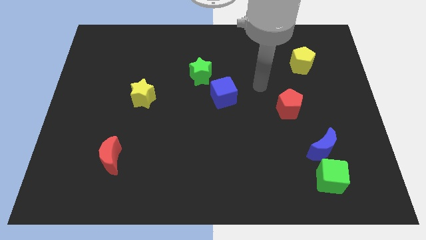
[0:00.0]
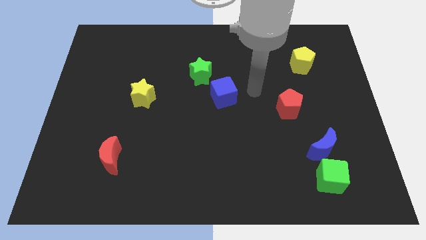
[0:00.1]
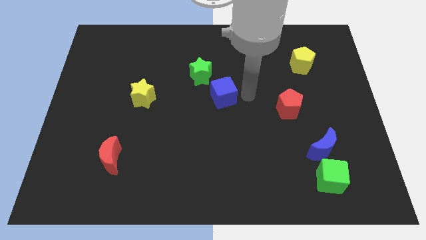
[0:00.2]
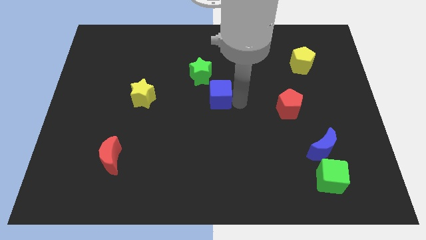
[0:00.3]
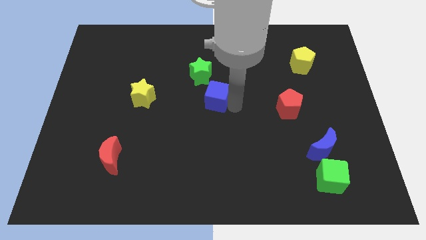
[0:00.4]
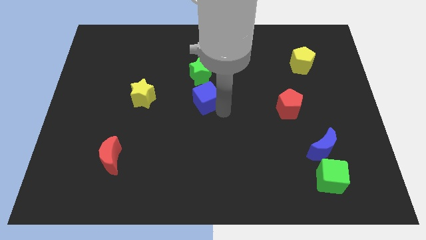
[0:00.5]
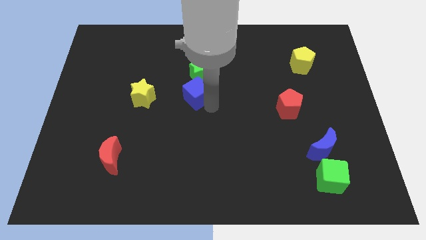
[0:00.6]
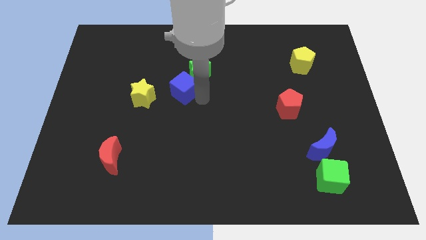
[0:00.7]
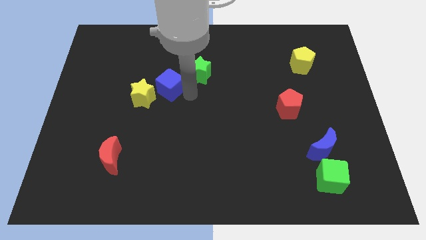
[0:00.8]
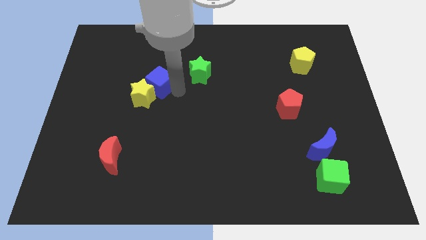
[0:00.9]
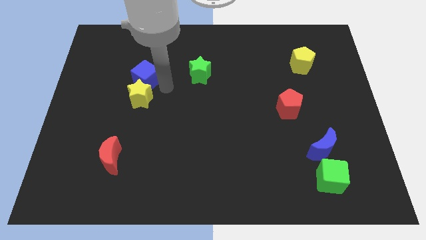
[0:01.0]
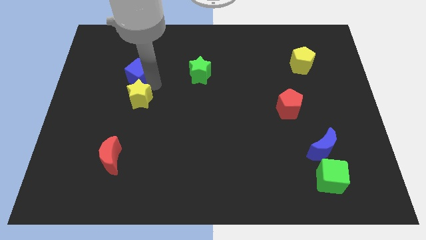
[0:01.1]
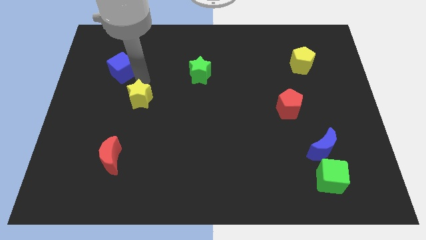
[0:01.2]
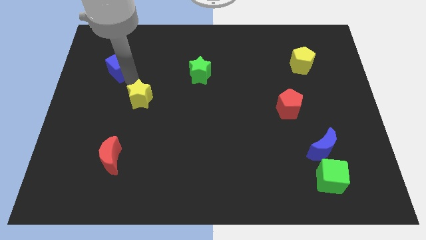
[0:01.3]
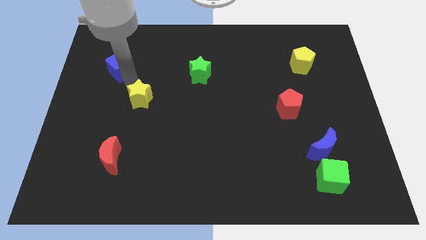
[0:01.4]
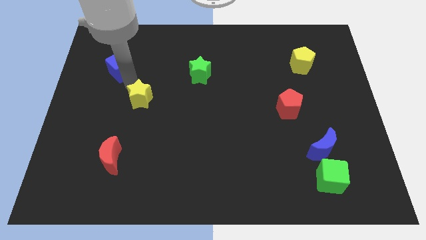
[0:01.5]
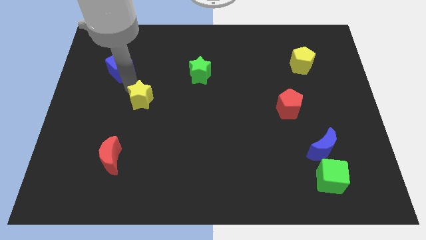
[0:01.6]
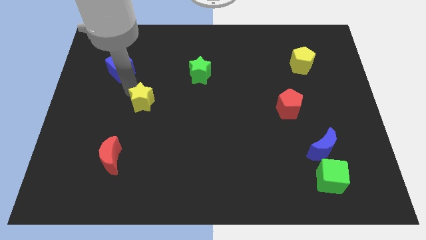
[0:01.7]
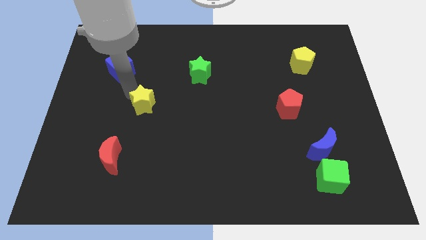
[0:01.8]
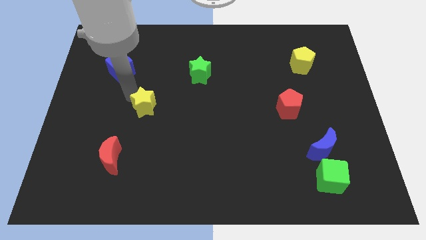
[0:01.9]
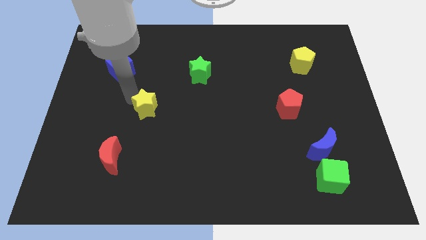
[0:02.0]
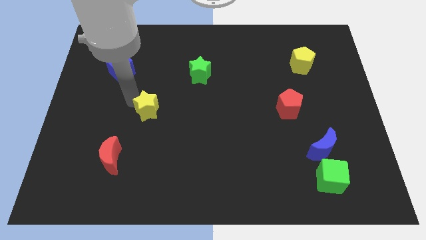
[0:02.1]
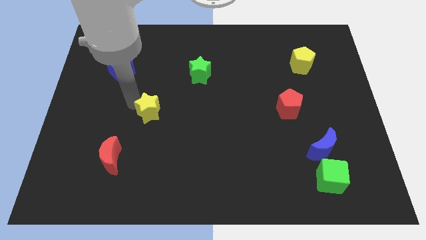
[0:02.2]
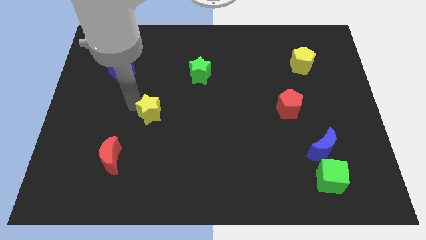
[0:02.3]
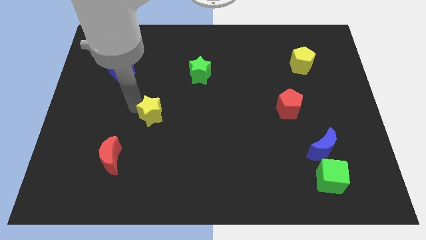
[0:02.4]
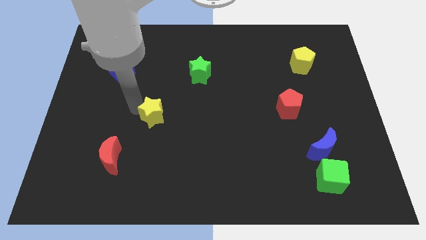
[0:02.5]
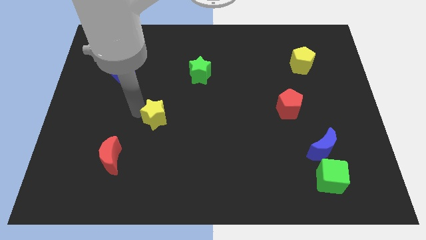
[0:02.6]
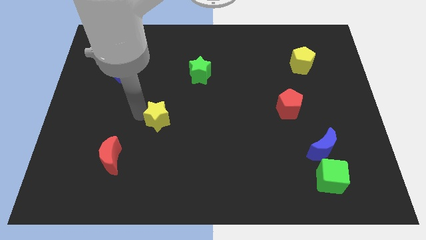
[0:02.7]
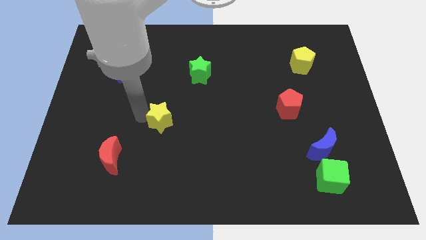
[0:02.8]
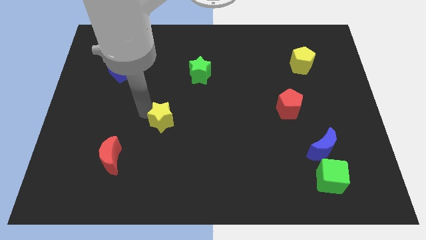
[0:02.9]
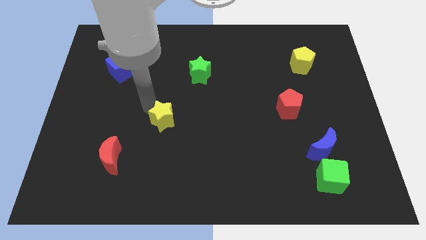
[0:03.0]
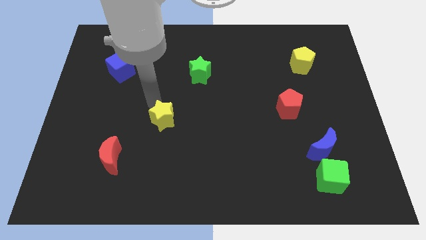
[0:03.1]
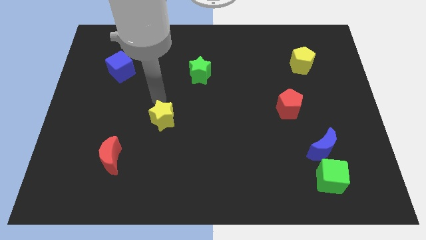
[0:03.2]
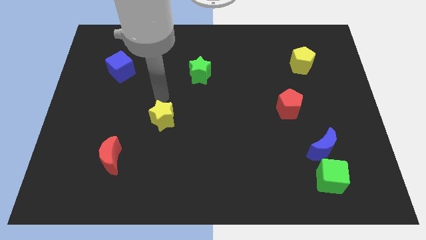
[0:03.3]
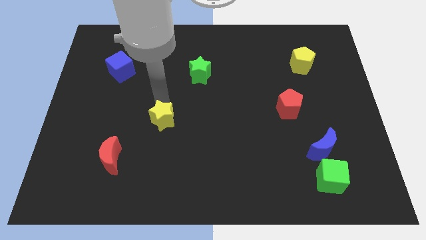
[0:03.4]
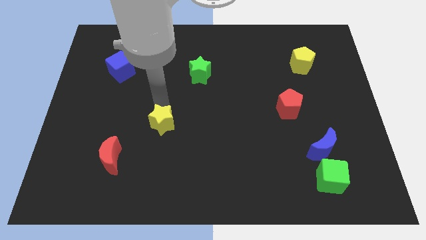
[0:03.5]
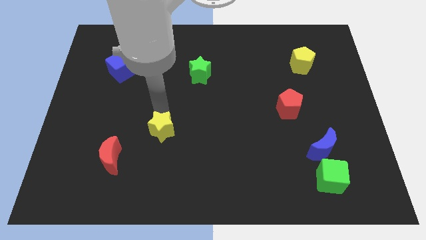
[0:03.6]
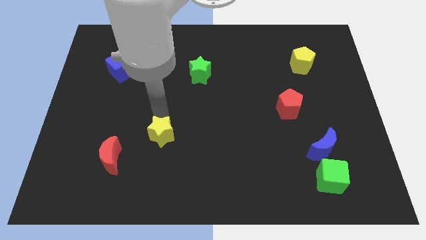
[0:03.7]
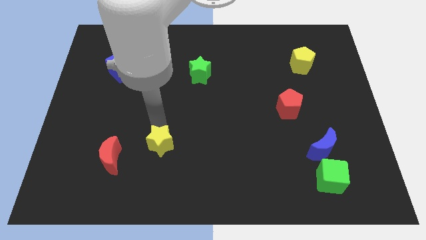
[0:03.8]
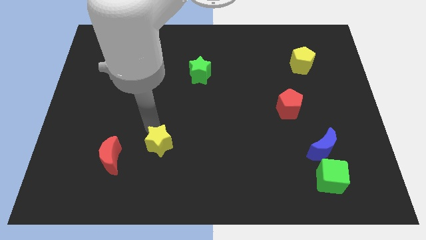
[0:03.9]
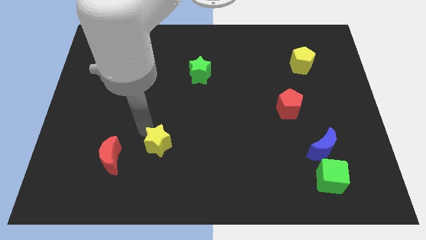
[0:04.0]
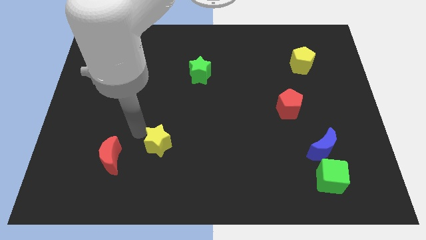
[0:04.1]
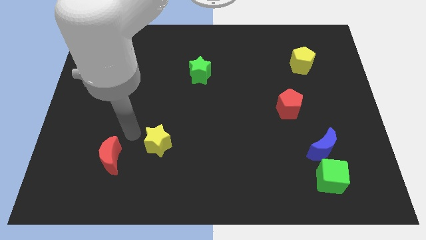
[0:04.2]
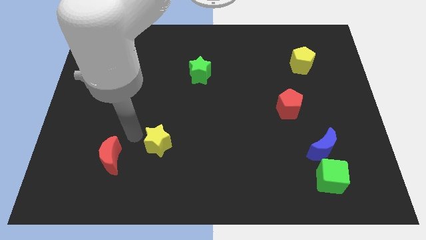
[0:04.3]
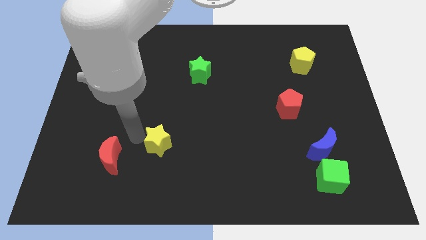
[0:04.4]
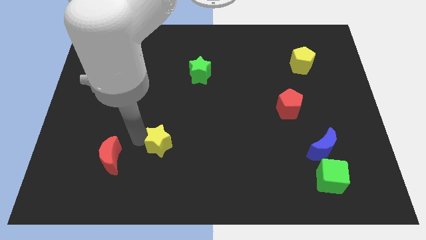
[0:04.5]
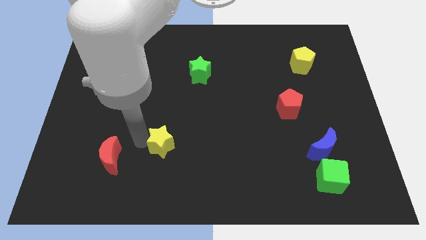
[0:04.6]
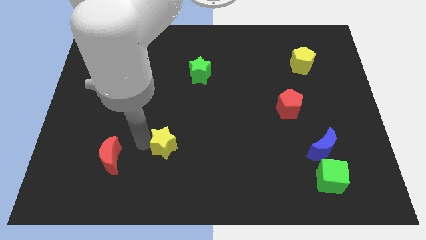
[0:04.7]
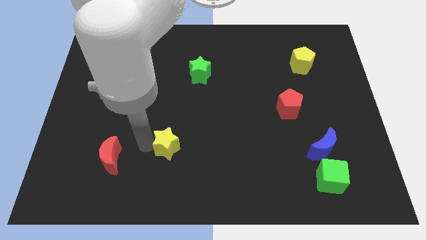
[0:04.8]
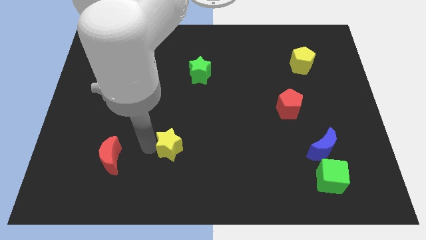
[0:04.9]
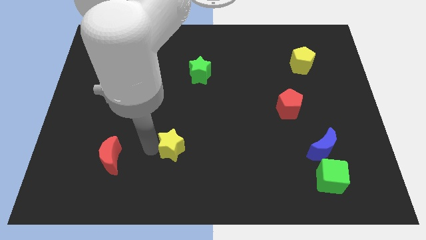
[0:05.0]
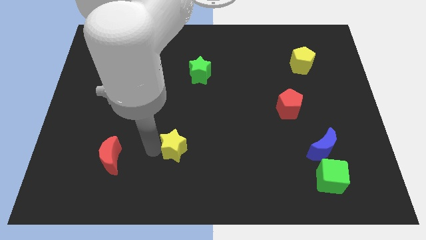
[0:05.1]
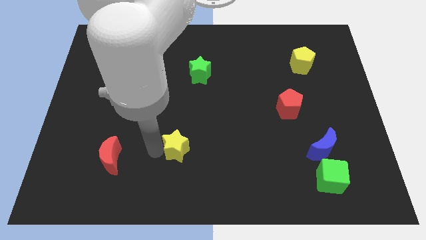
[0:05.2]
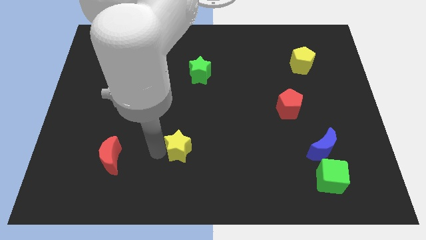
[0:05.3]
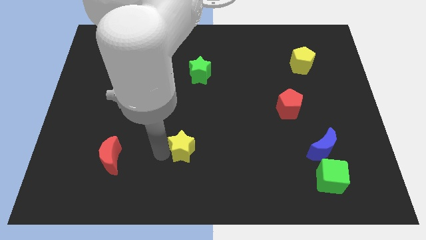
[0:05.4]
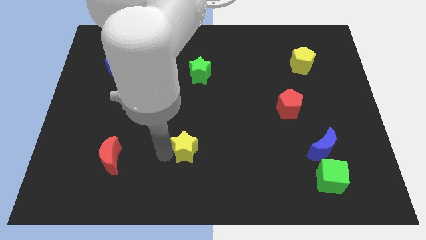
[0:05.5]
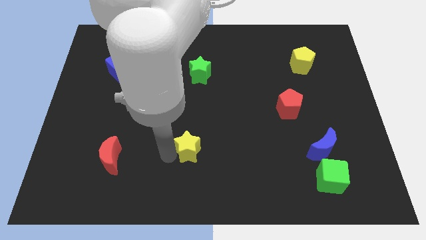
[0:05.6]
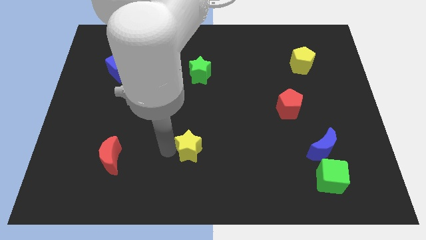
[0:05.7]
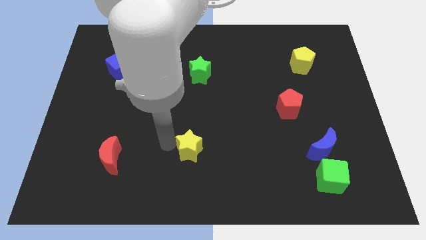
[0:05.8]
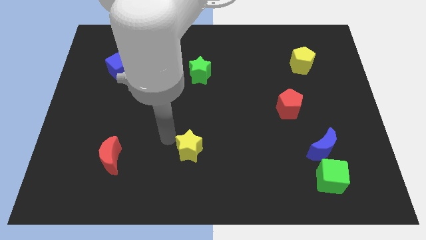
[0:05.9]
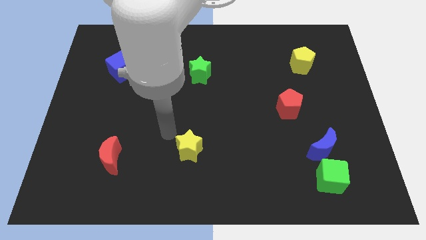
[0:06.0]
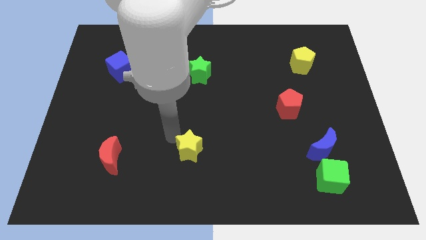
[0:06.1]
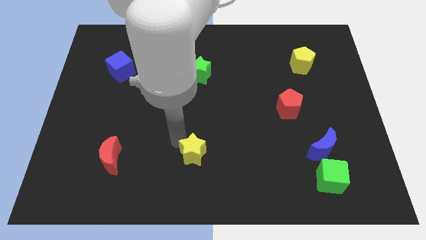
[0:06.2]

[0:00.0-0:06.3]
slide the yellow star diagonally down and to the right

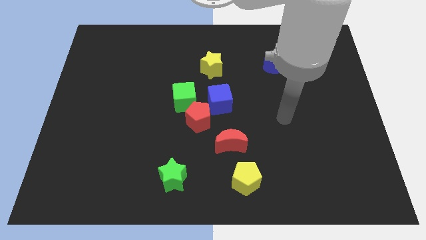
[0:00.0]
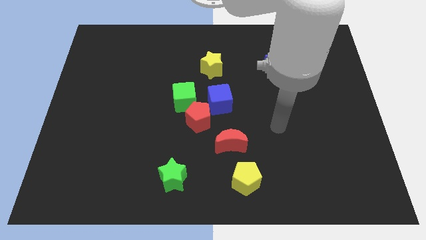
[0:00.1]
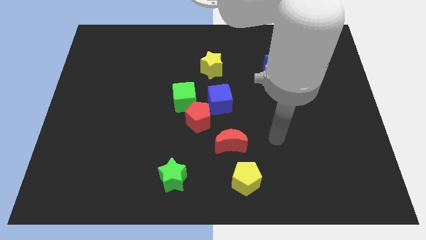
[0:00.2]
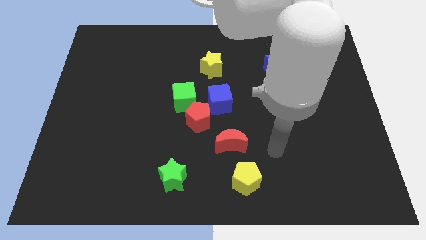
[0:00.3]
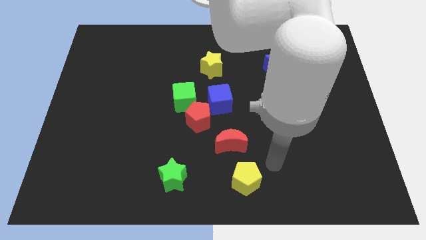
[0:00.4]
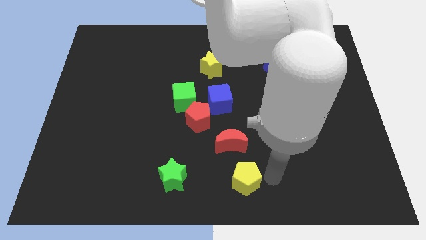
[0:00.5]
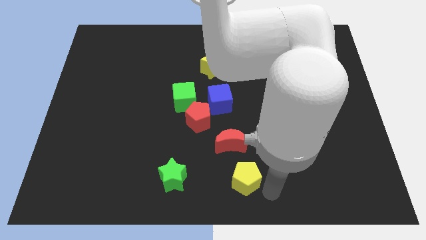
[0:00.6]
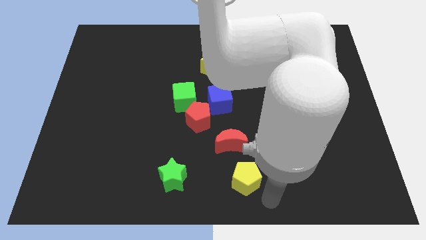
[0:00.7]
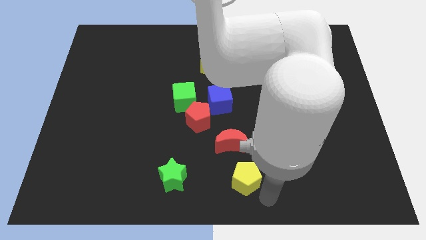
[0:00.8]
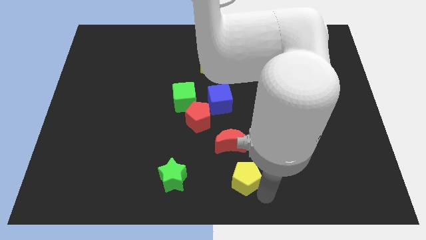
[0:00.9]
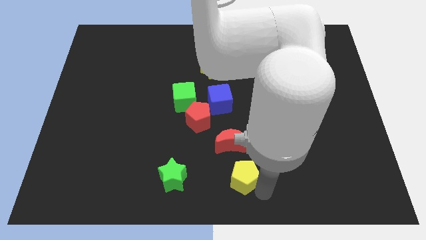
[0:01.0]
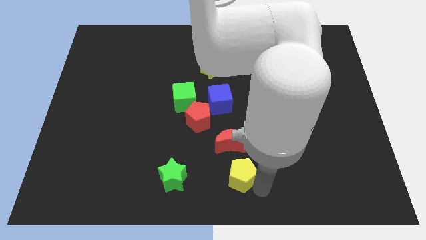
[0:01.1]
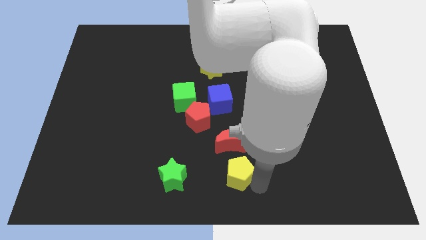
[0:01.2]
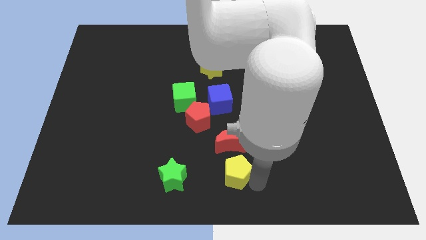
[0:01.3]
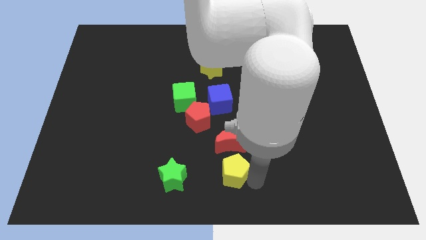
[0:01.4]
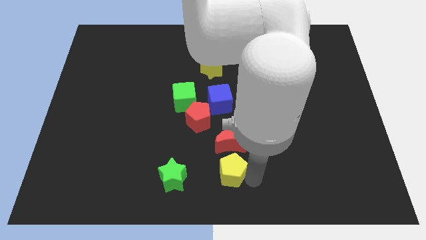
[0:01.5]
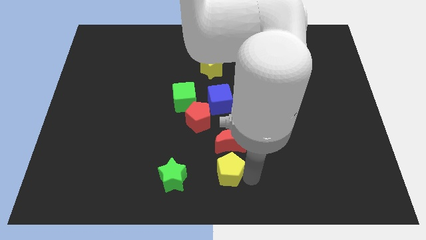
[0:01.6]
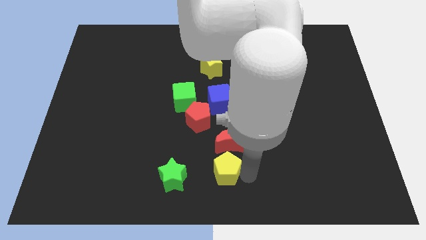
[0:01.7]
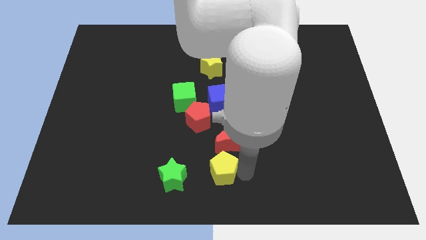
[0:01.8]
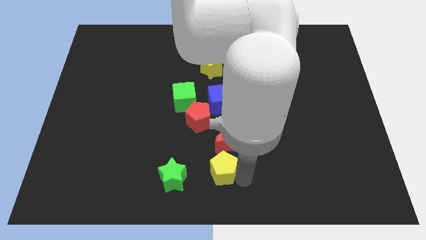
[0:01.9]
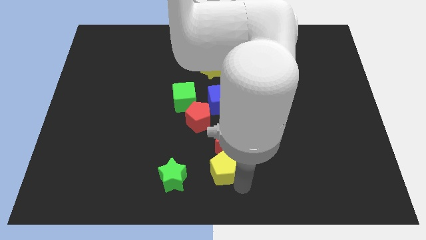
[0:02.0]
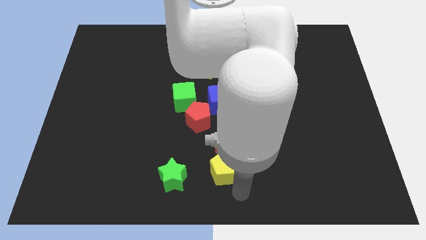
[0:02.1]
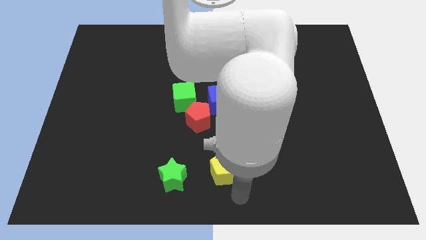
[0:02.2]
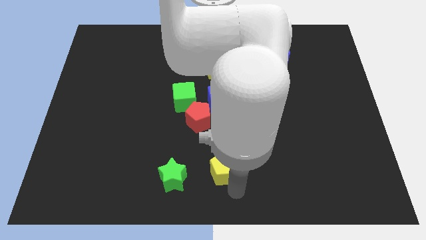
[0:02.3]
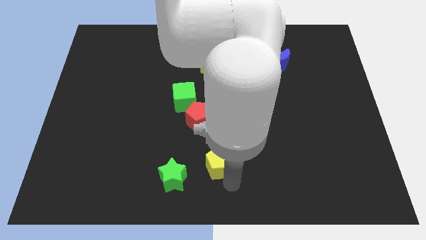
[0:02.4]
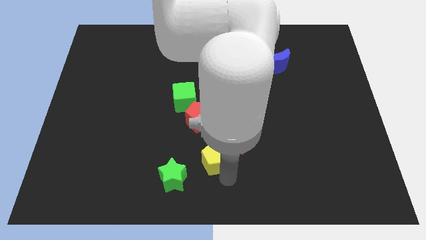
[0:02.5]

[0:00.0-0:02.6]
move the yellow pentagon upwards and to the left somewhat
